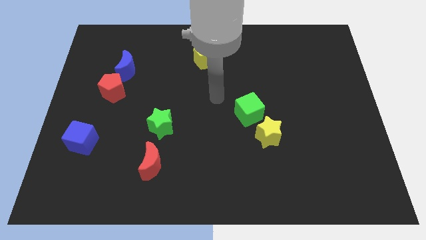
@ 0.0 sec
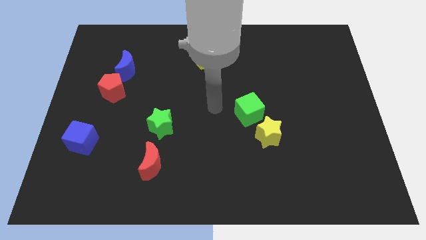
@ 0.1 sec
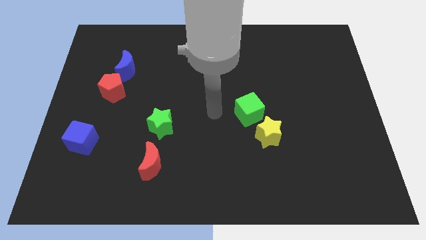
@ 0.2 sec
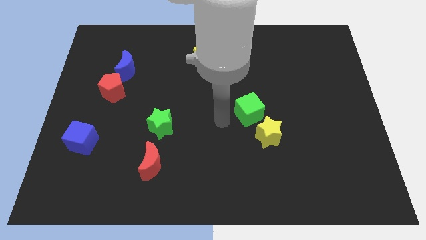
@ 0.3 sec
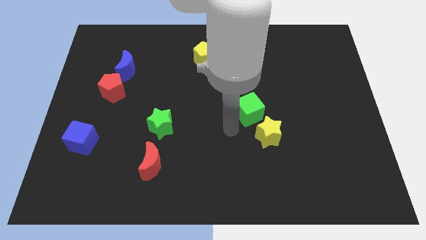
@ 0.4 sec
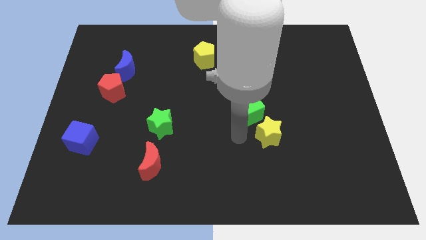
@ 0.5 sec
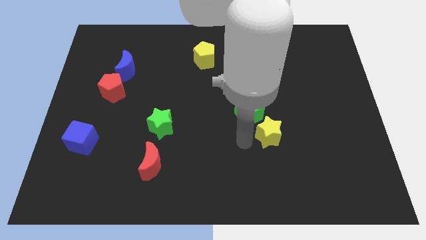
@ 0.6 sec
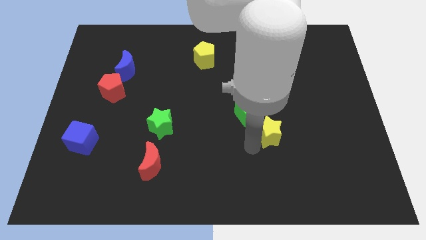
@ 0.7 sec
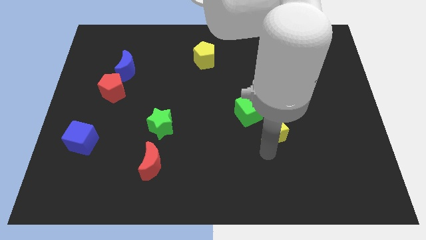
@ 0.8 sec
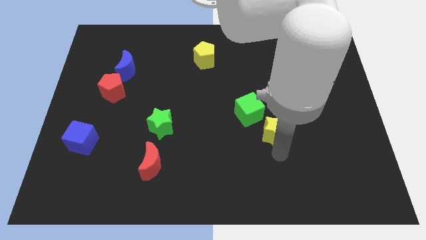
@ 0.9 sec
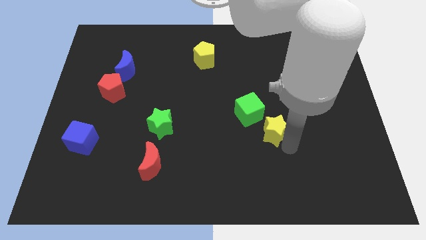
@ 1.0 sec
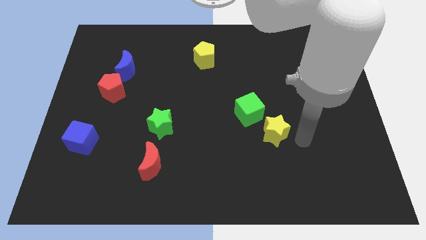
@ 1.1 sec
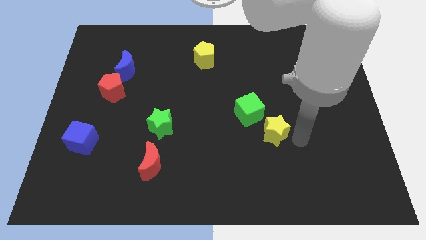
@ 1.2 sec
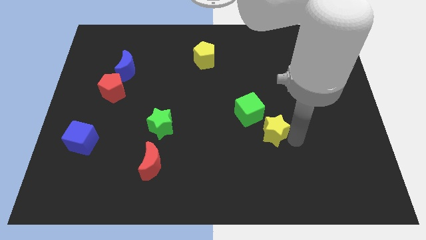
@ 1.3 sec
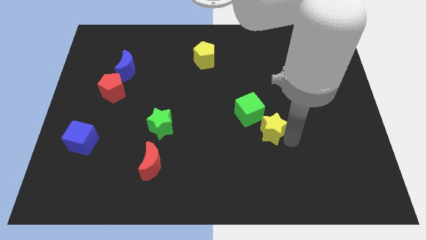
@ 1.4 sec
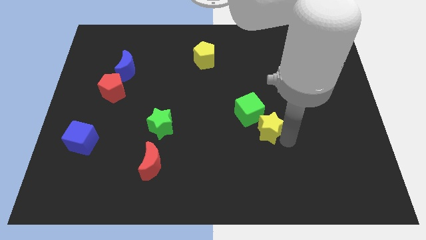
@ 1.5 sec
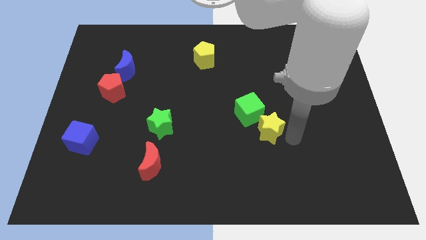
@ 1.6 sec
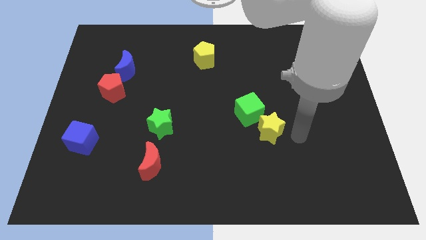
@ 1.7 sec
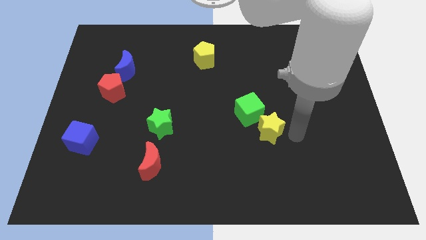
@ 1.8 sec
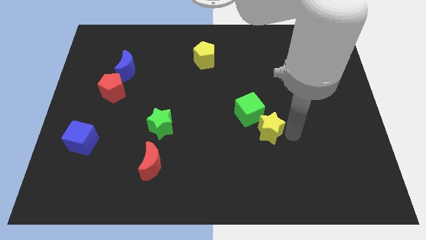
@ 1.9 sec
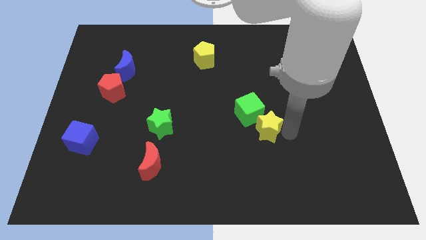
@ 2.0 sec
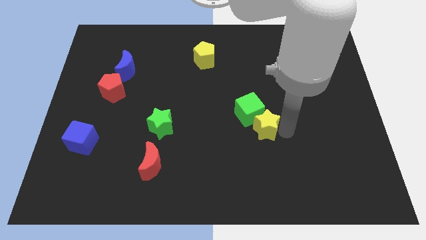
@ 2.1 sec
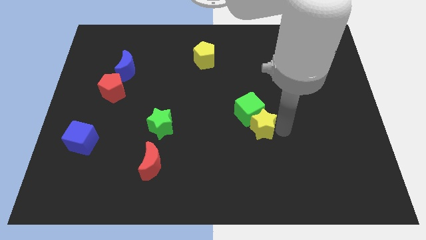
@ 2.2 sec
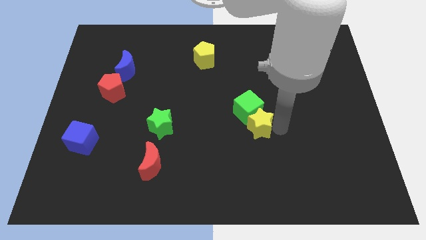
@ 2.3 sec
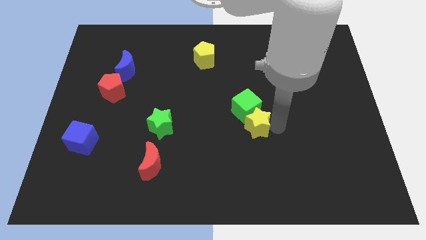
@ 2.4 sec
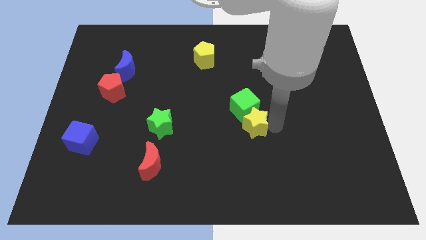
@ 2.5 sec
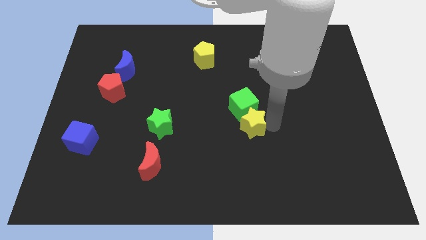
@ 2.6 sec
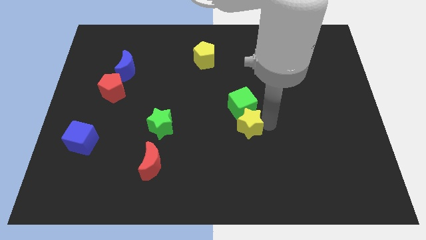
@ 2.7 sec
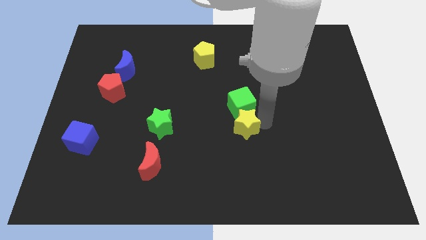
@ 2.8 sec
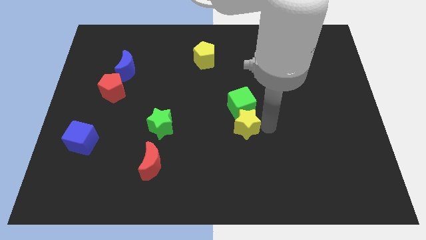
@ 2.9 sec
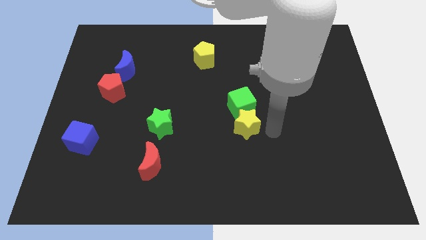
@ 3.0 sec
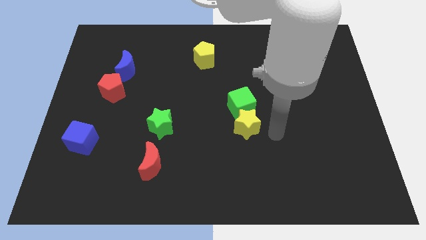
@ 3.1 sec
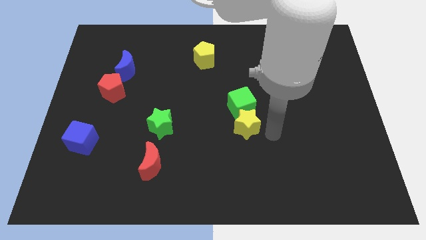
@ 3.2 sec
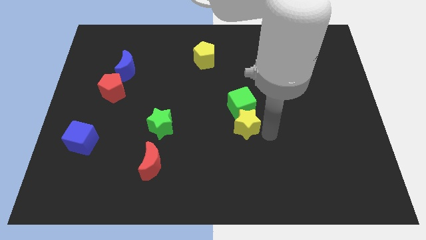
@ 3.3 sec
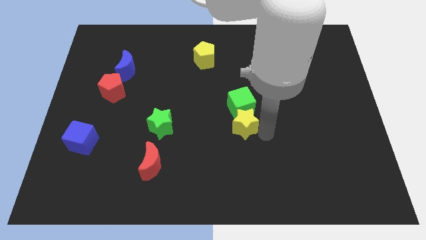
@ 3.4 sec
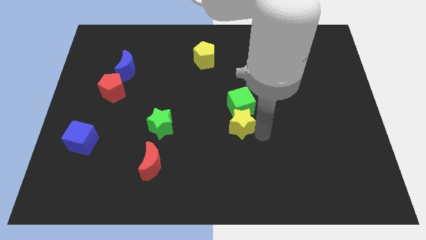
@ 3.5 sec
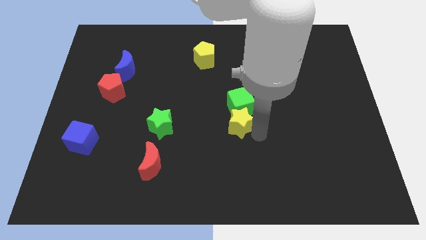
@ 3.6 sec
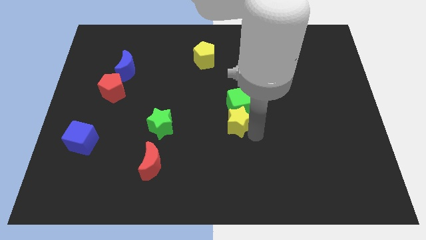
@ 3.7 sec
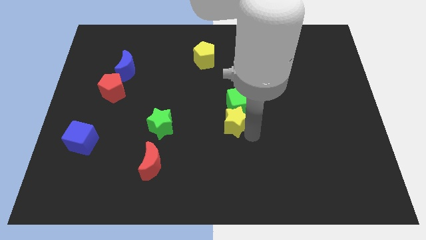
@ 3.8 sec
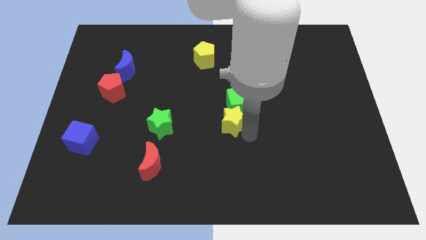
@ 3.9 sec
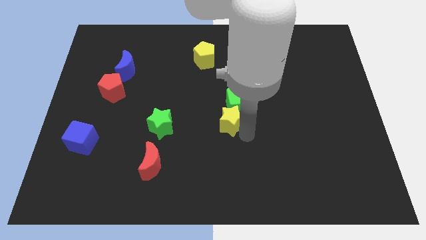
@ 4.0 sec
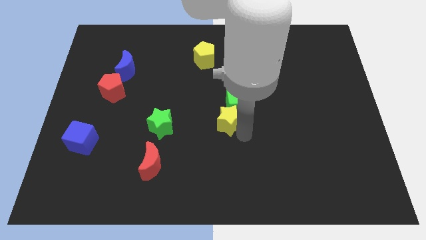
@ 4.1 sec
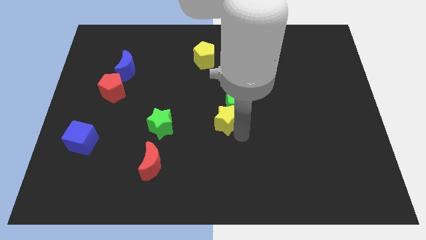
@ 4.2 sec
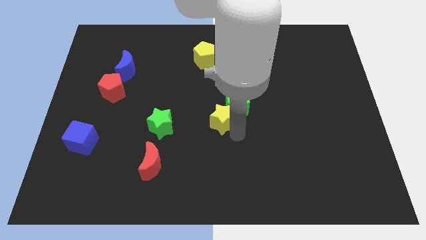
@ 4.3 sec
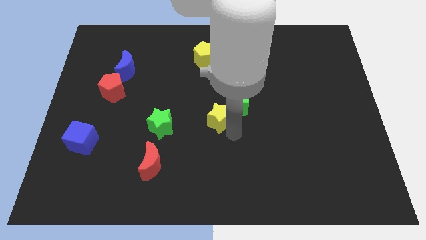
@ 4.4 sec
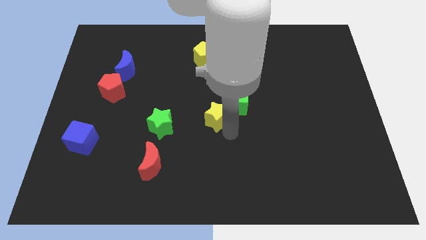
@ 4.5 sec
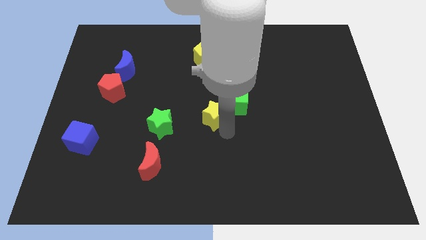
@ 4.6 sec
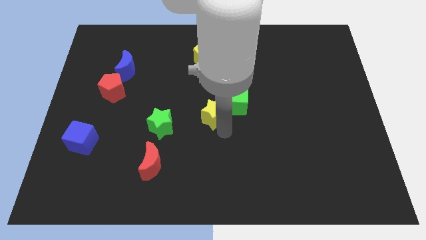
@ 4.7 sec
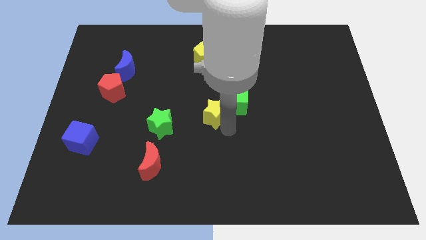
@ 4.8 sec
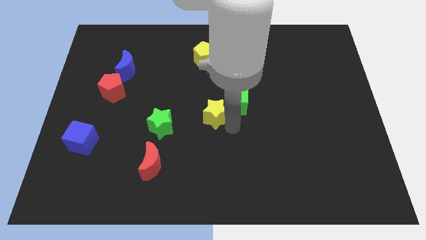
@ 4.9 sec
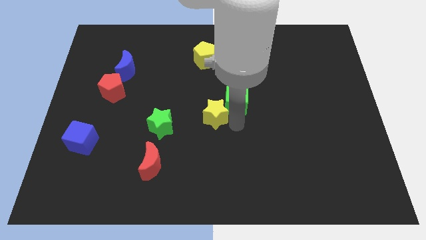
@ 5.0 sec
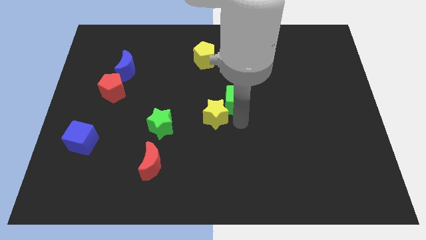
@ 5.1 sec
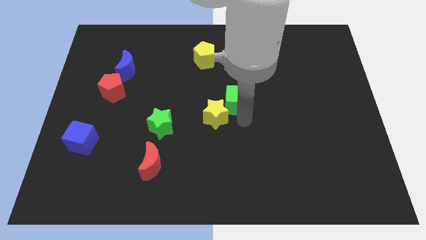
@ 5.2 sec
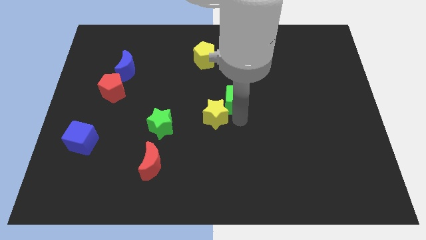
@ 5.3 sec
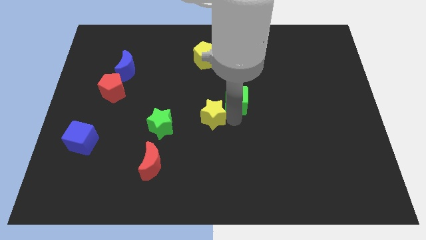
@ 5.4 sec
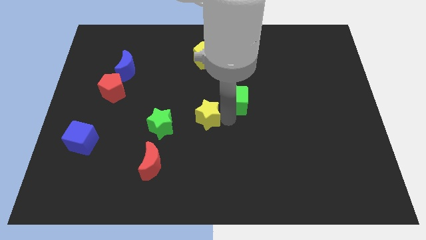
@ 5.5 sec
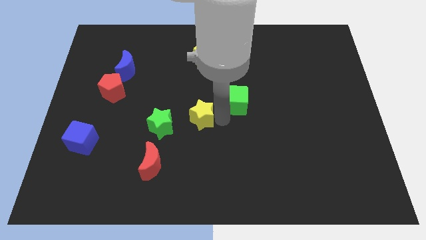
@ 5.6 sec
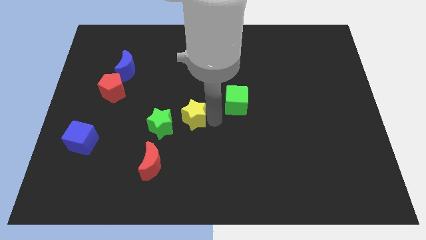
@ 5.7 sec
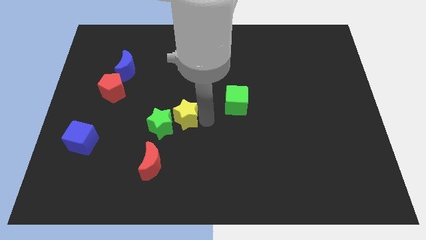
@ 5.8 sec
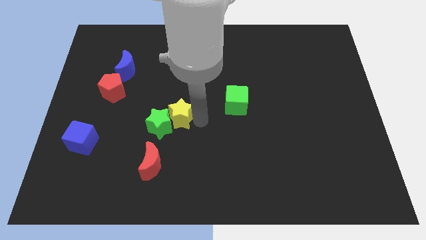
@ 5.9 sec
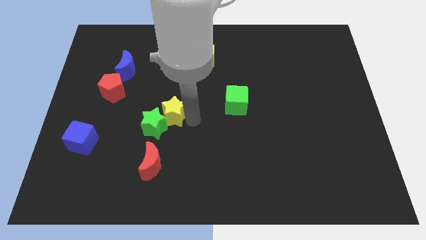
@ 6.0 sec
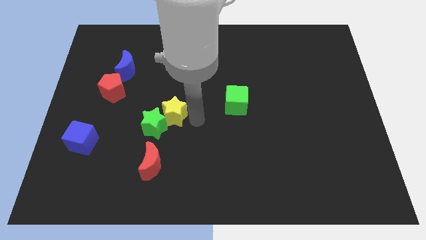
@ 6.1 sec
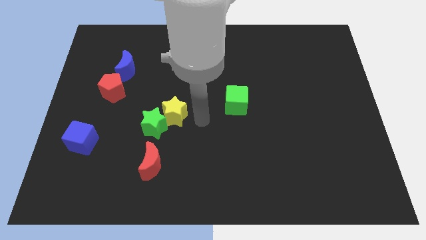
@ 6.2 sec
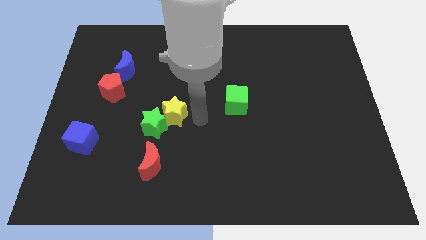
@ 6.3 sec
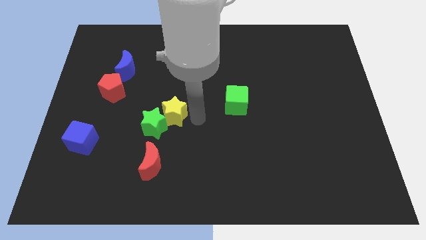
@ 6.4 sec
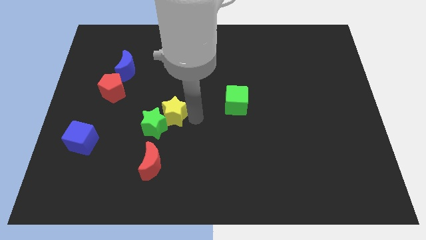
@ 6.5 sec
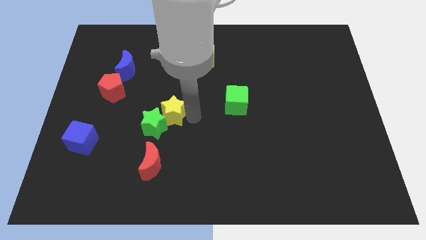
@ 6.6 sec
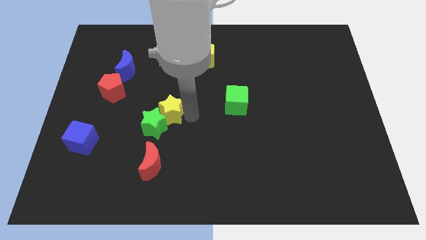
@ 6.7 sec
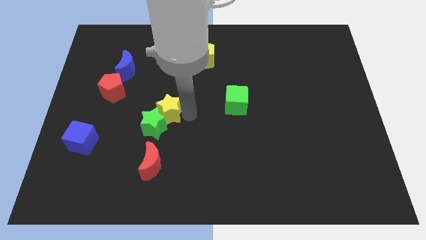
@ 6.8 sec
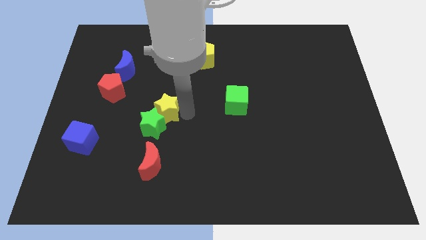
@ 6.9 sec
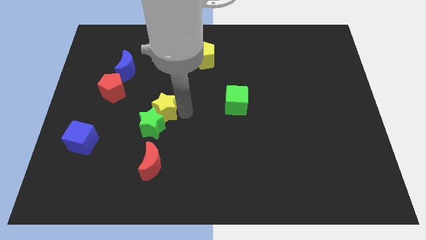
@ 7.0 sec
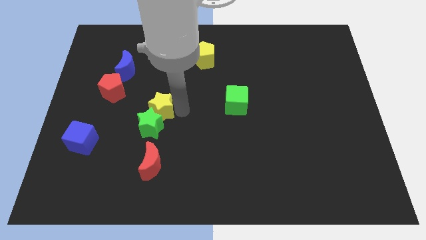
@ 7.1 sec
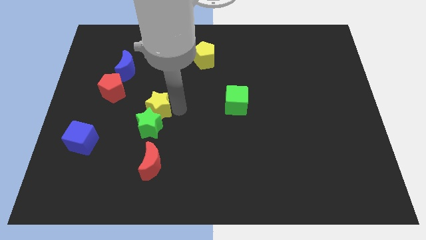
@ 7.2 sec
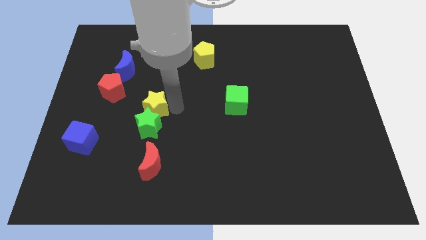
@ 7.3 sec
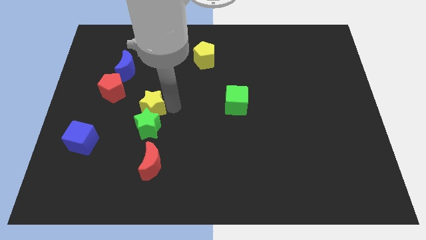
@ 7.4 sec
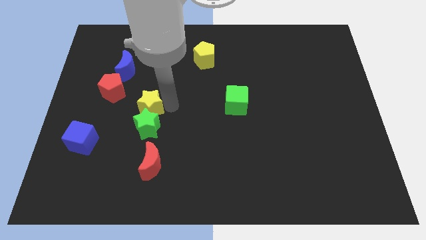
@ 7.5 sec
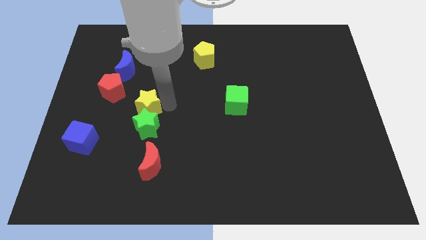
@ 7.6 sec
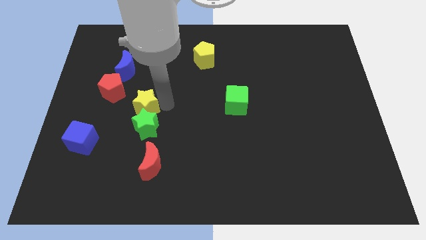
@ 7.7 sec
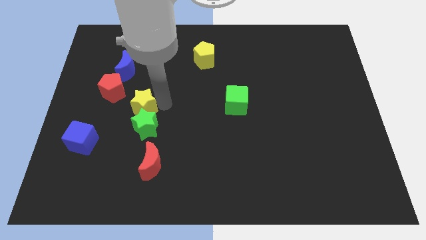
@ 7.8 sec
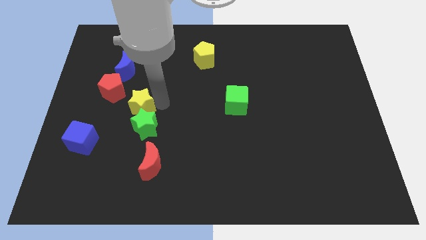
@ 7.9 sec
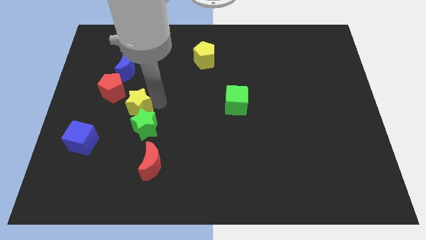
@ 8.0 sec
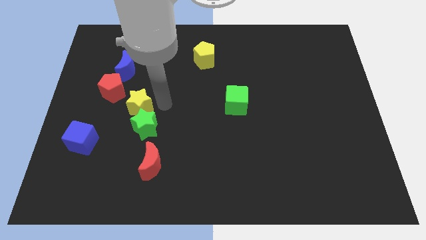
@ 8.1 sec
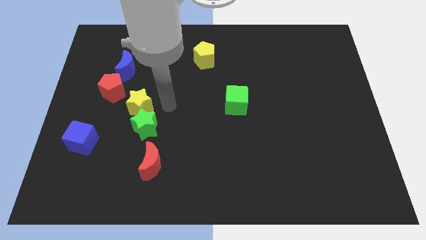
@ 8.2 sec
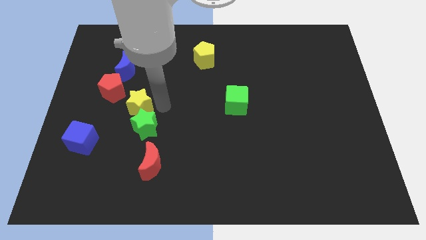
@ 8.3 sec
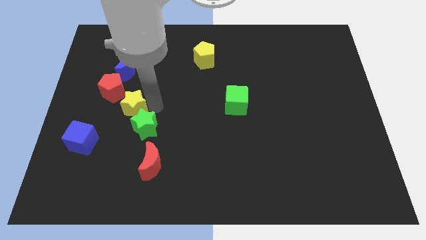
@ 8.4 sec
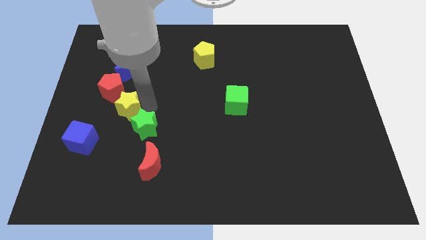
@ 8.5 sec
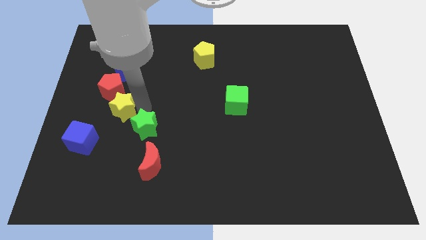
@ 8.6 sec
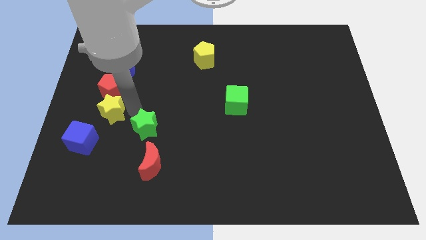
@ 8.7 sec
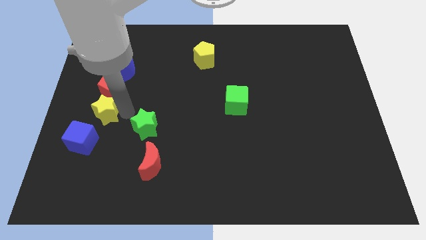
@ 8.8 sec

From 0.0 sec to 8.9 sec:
slide the yellow star above the blue cube
